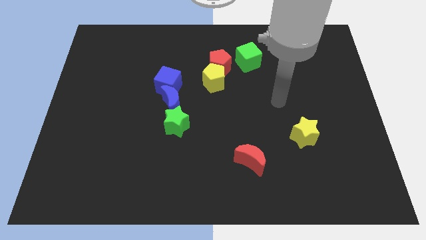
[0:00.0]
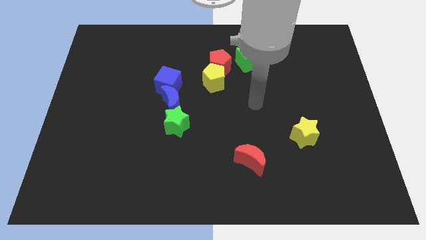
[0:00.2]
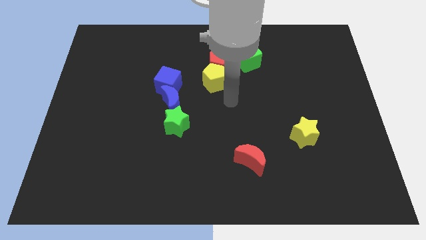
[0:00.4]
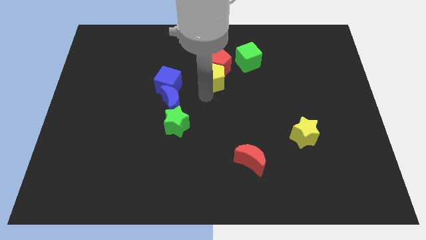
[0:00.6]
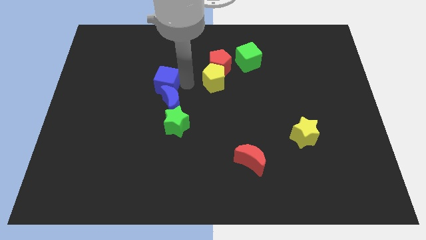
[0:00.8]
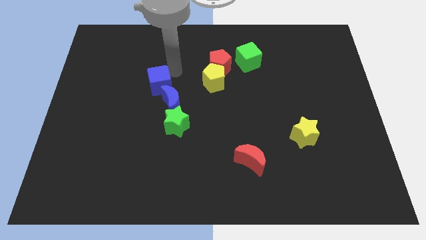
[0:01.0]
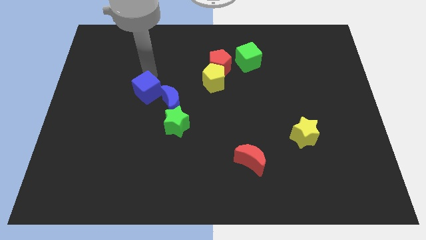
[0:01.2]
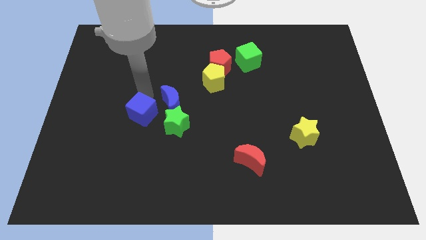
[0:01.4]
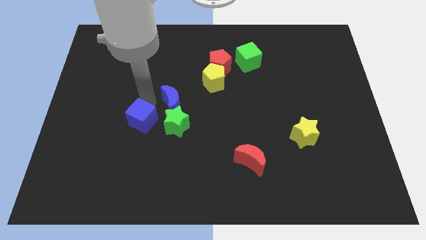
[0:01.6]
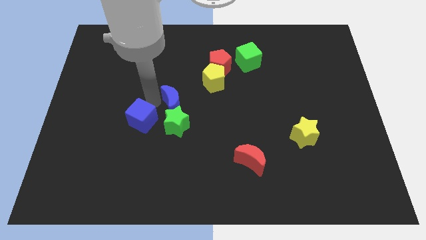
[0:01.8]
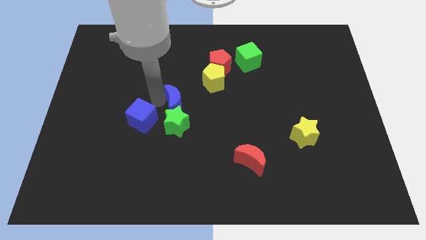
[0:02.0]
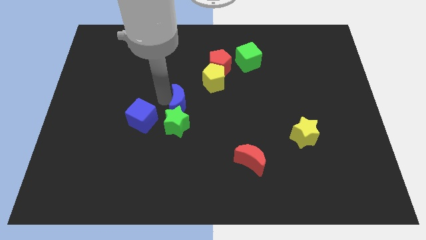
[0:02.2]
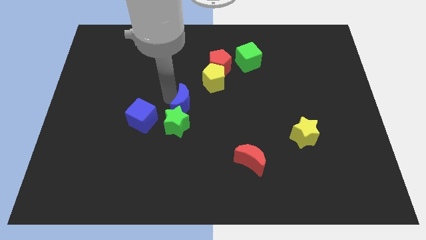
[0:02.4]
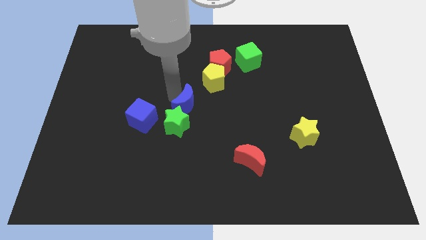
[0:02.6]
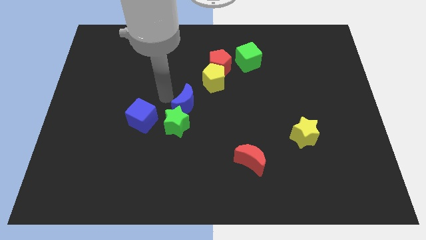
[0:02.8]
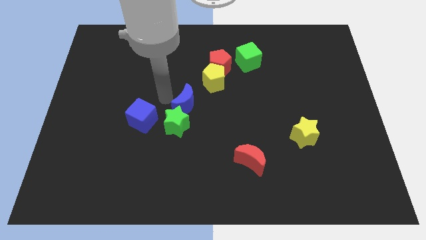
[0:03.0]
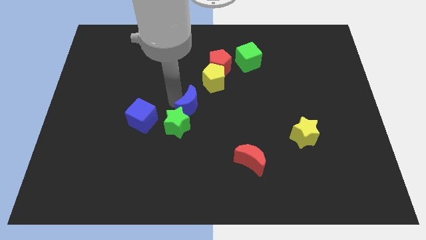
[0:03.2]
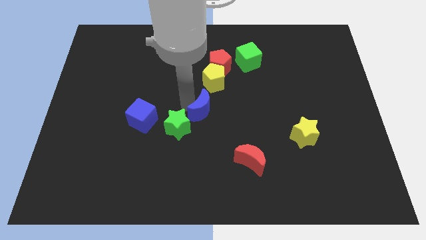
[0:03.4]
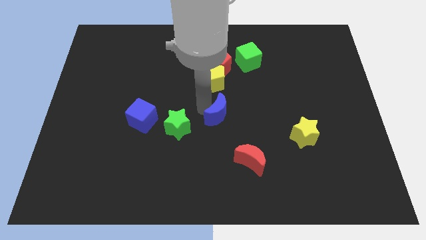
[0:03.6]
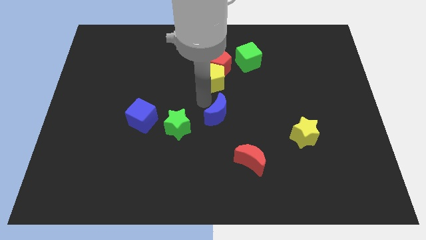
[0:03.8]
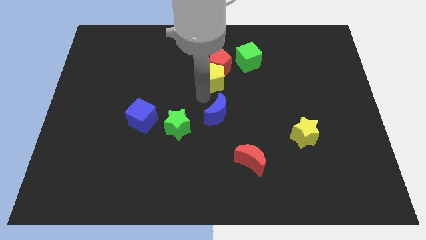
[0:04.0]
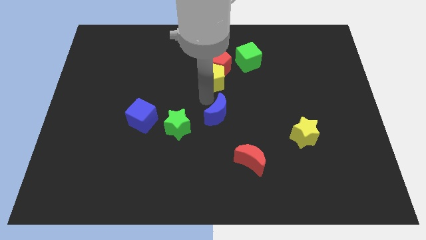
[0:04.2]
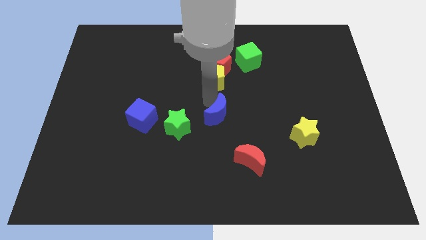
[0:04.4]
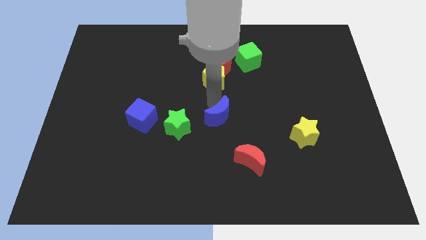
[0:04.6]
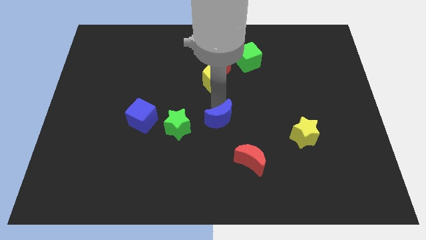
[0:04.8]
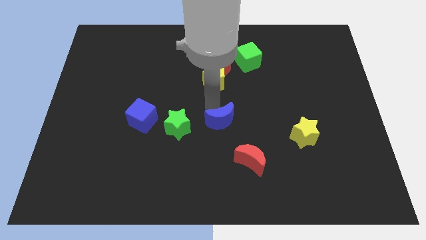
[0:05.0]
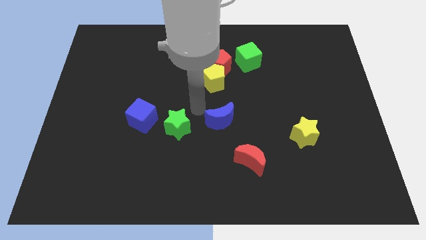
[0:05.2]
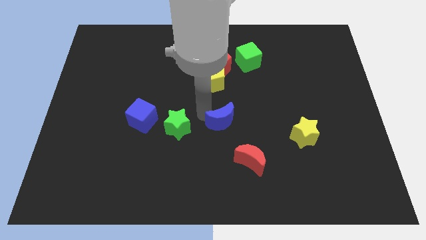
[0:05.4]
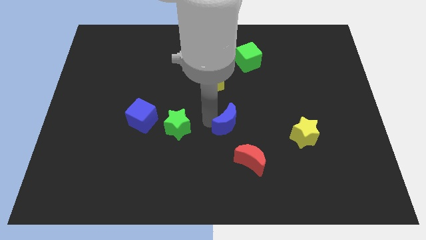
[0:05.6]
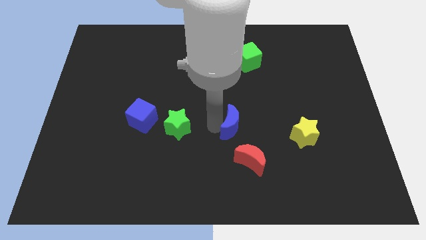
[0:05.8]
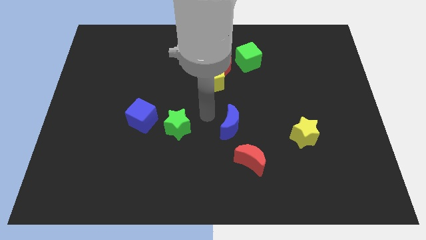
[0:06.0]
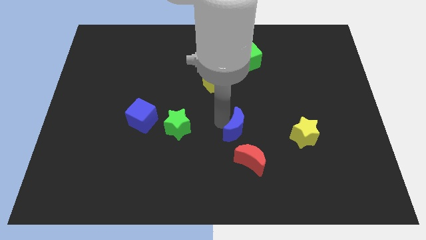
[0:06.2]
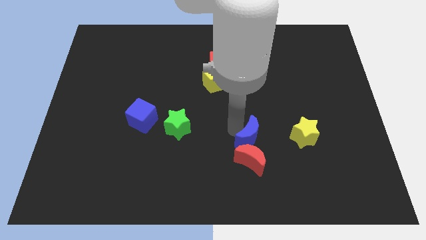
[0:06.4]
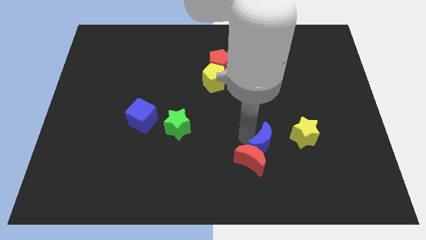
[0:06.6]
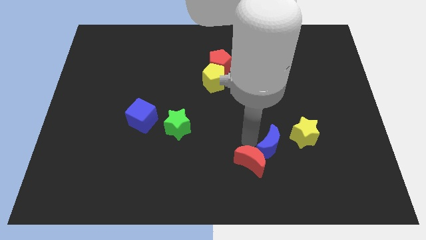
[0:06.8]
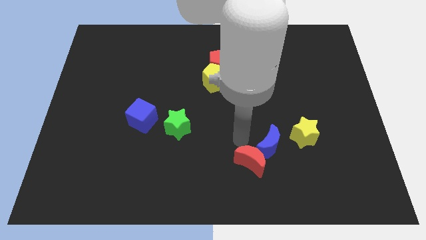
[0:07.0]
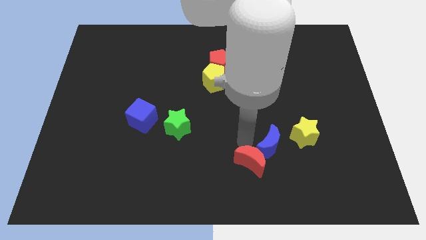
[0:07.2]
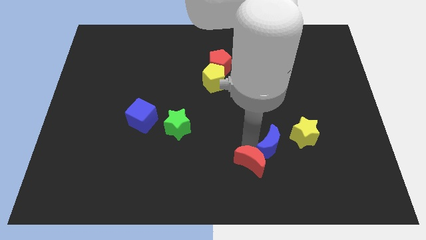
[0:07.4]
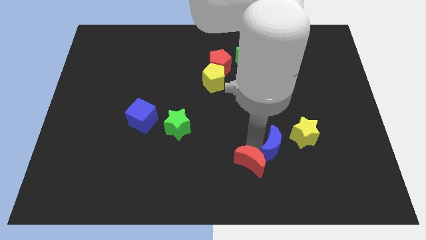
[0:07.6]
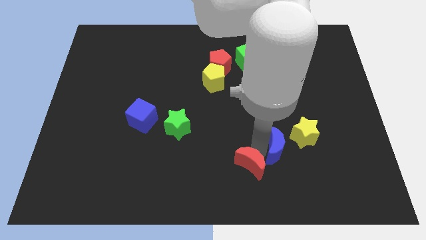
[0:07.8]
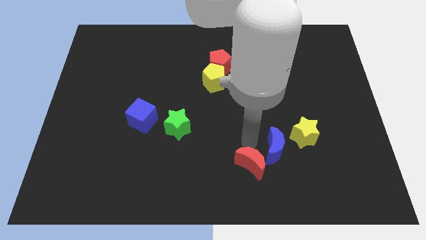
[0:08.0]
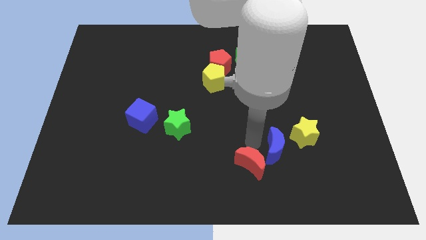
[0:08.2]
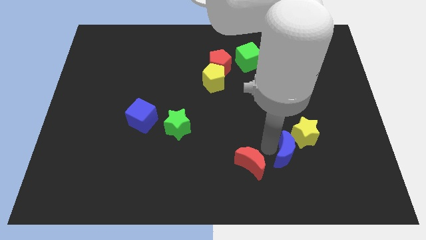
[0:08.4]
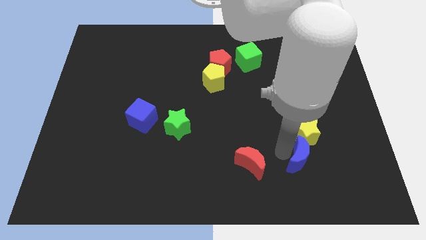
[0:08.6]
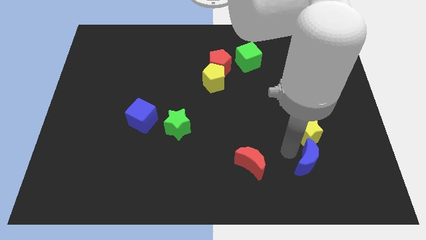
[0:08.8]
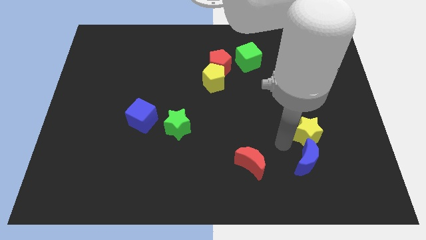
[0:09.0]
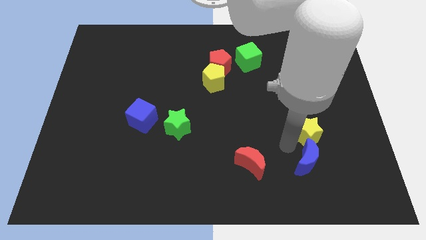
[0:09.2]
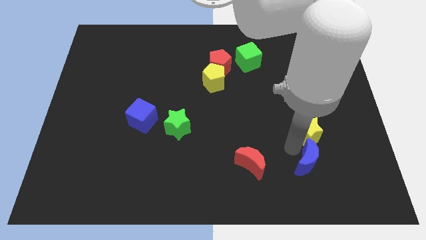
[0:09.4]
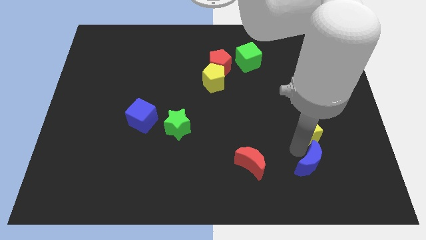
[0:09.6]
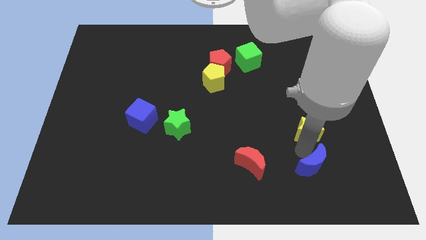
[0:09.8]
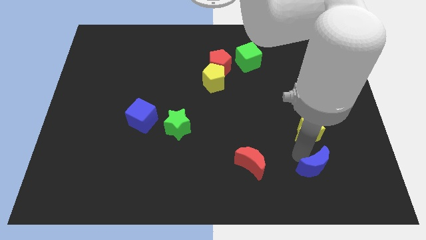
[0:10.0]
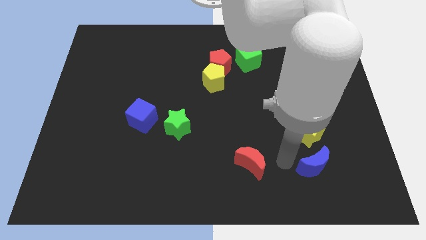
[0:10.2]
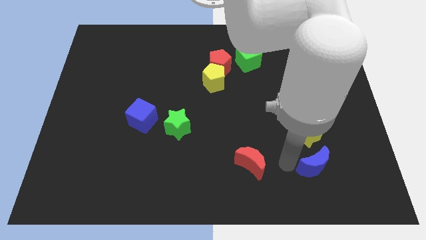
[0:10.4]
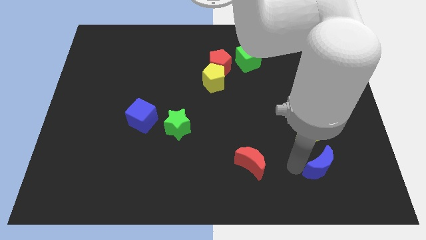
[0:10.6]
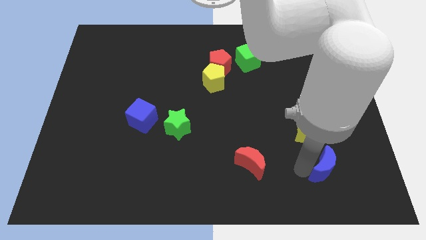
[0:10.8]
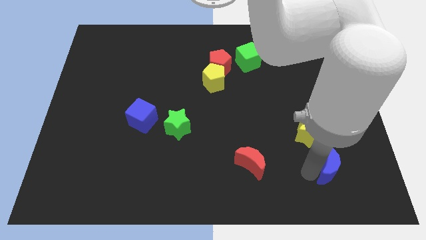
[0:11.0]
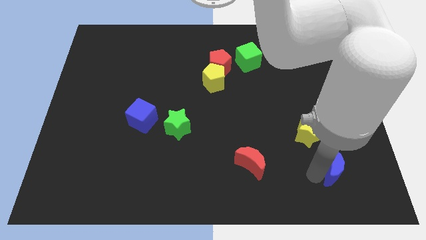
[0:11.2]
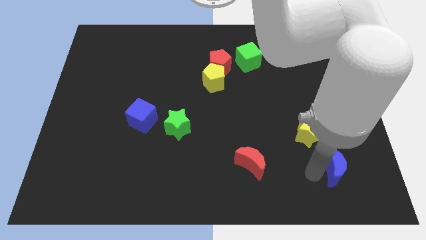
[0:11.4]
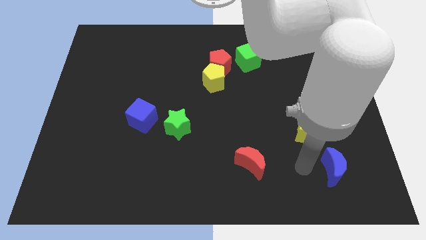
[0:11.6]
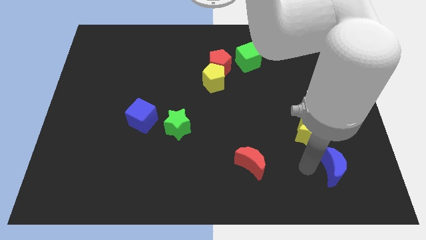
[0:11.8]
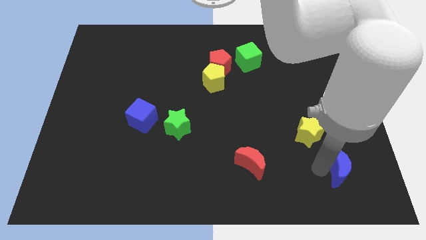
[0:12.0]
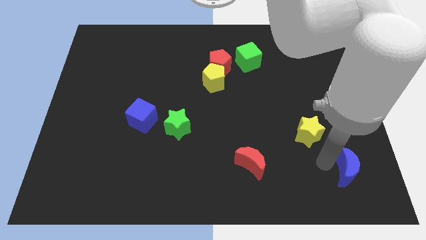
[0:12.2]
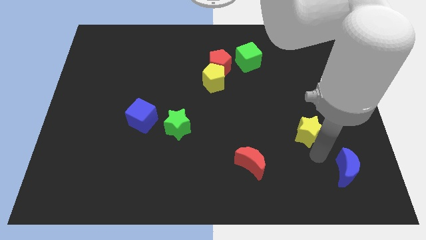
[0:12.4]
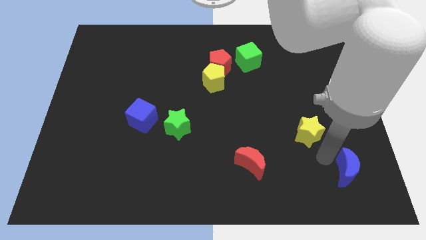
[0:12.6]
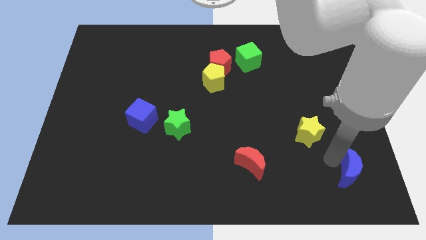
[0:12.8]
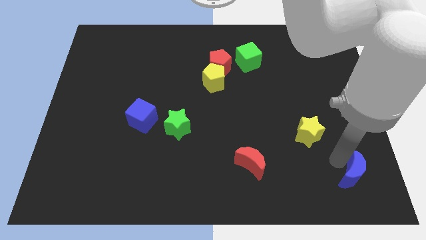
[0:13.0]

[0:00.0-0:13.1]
slide the blue moon to the lower right corner
